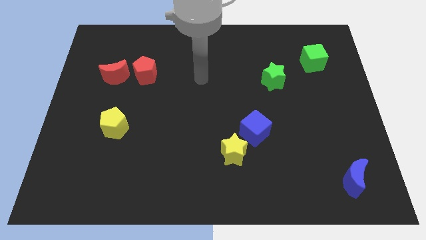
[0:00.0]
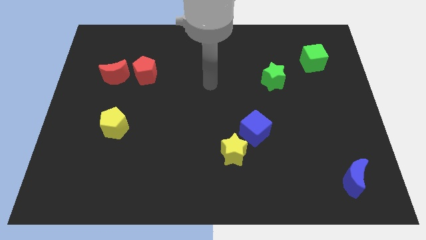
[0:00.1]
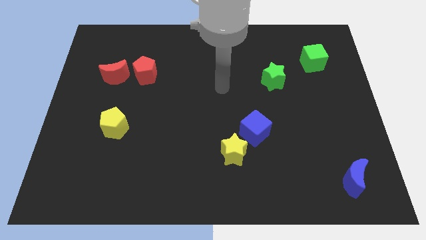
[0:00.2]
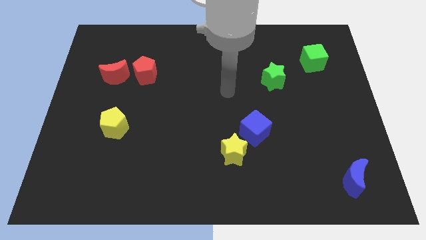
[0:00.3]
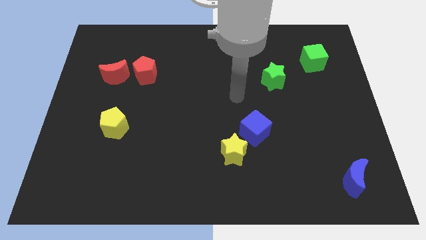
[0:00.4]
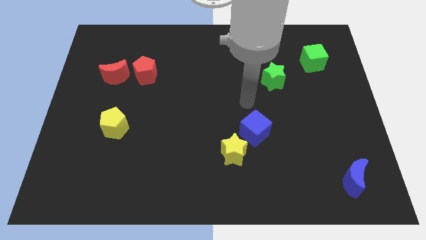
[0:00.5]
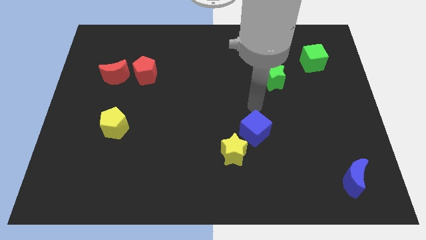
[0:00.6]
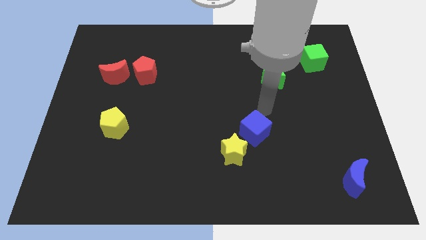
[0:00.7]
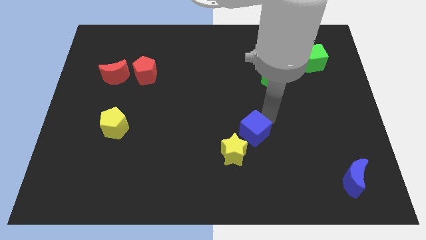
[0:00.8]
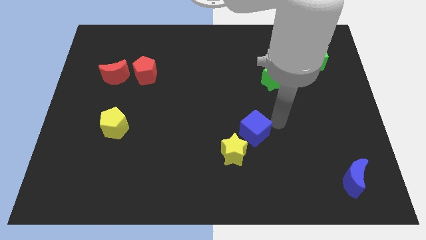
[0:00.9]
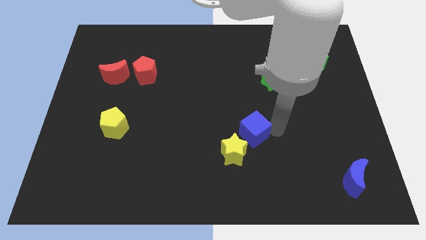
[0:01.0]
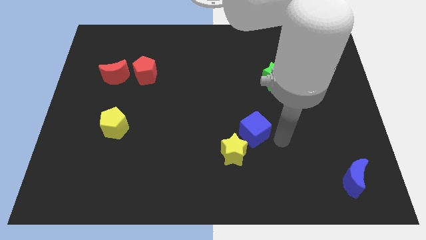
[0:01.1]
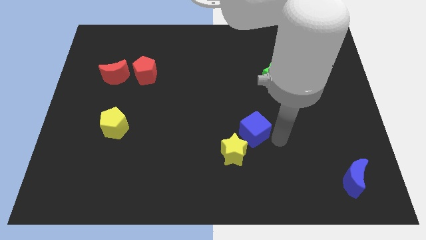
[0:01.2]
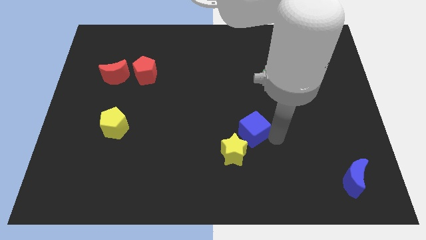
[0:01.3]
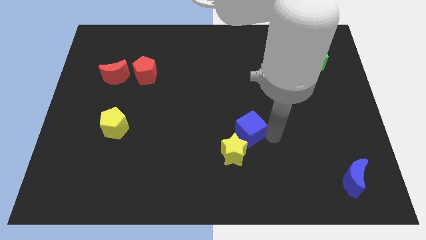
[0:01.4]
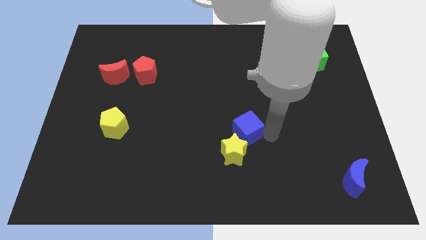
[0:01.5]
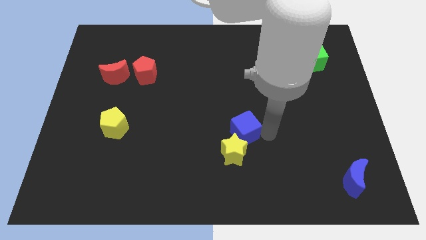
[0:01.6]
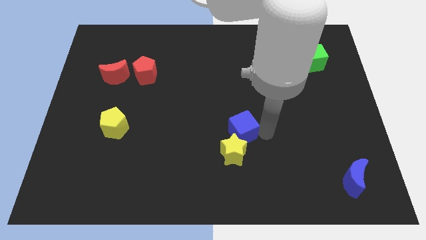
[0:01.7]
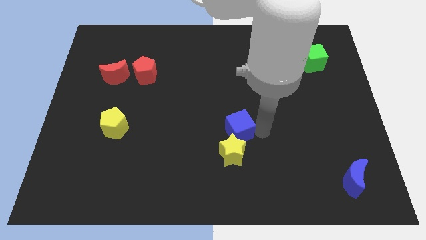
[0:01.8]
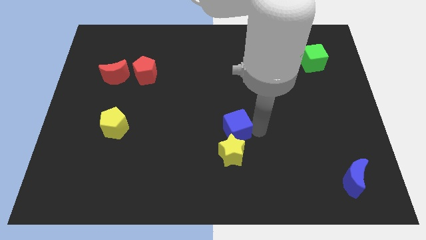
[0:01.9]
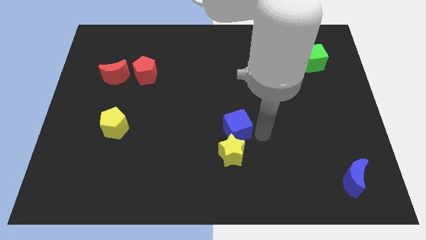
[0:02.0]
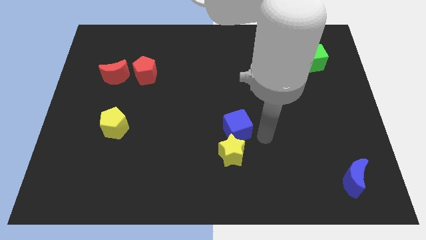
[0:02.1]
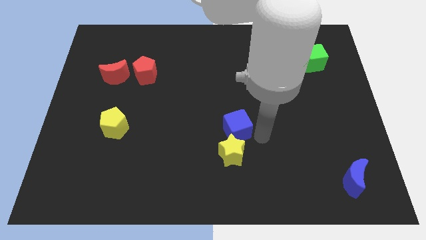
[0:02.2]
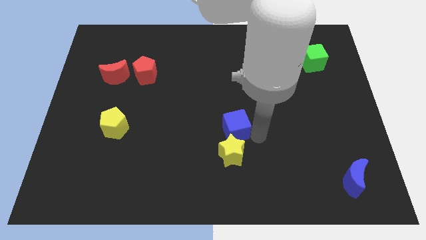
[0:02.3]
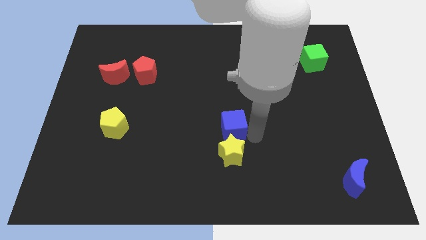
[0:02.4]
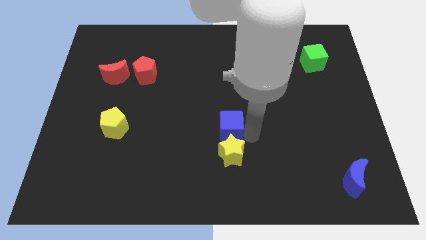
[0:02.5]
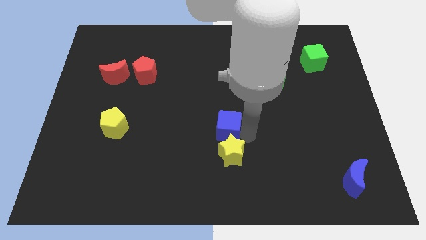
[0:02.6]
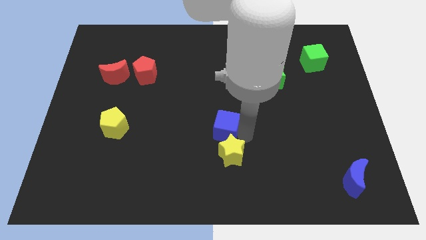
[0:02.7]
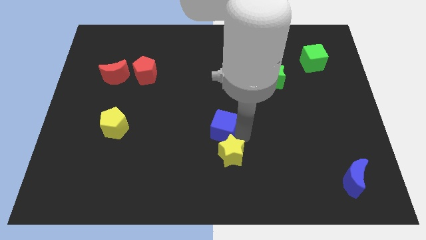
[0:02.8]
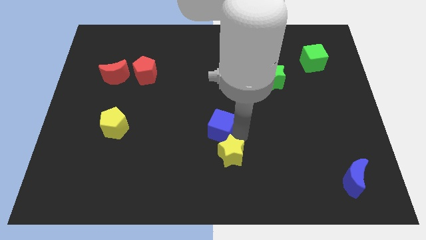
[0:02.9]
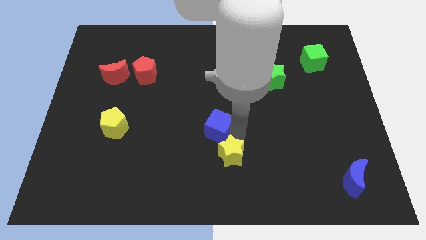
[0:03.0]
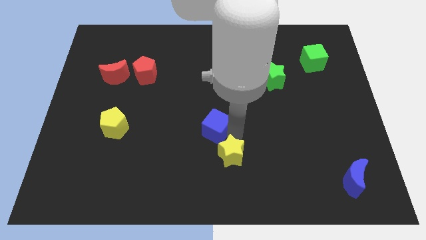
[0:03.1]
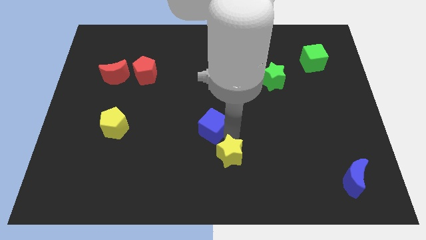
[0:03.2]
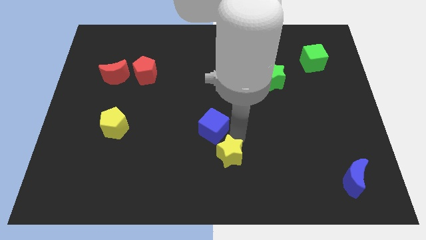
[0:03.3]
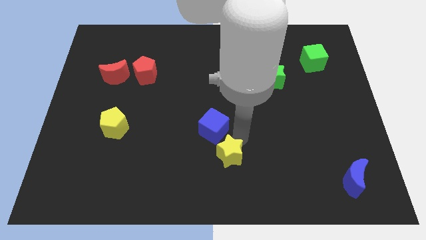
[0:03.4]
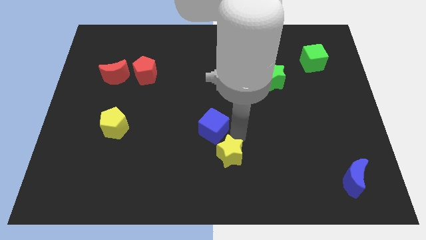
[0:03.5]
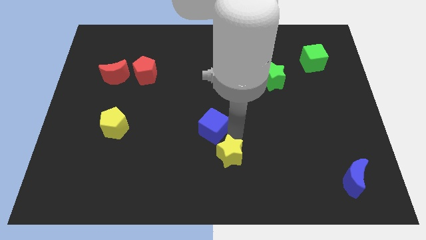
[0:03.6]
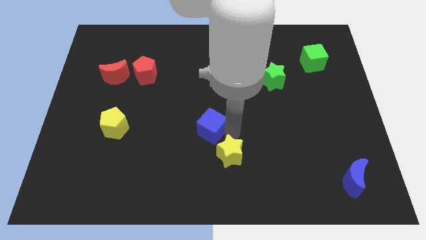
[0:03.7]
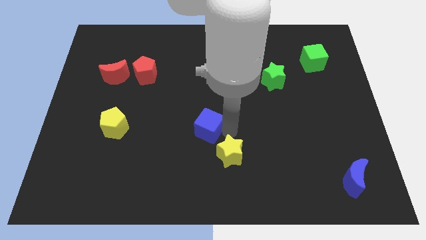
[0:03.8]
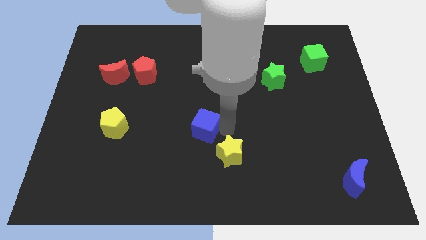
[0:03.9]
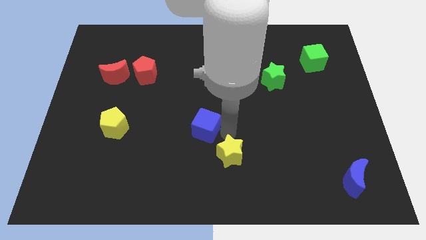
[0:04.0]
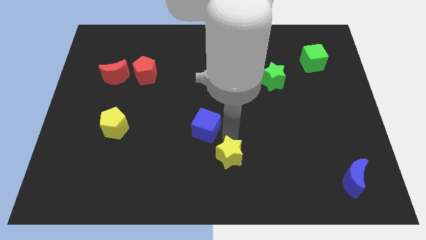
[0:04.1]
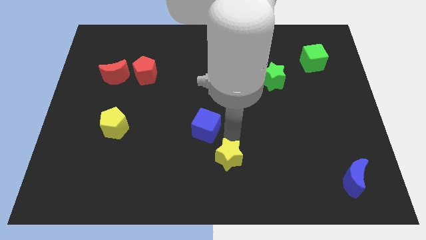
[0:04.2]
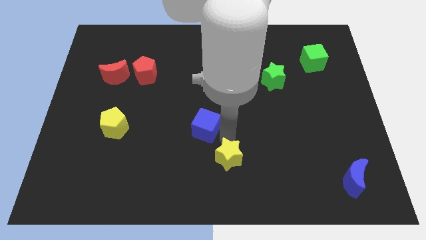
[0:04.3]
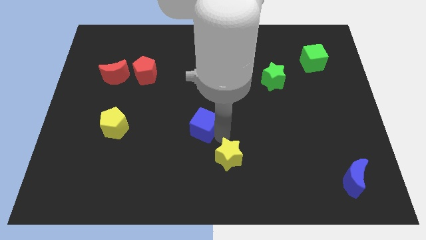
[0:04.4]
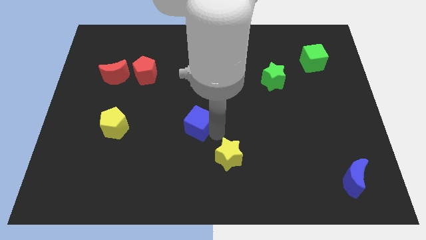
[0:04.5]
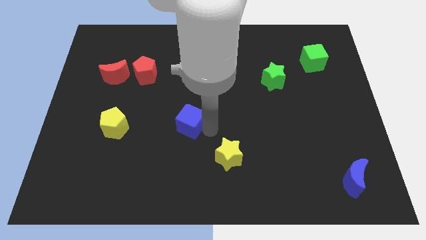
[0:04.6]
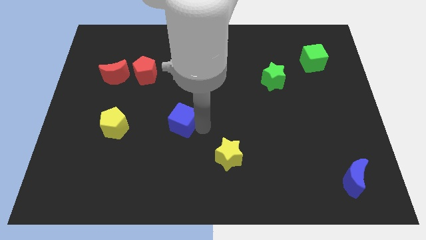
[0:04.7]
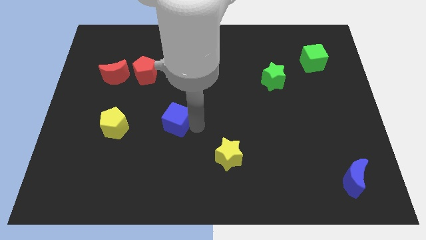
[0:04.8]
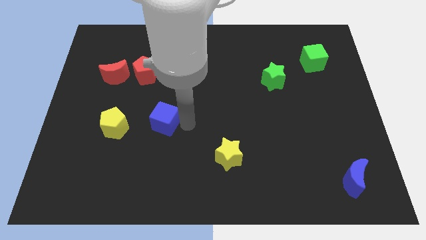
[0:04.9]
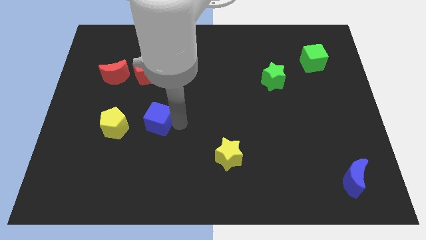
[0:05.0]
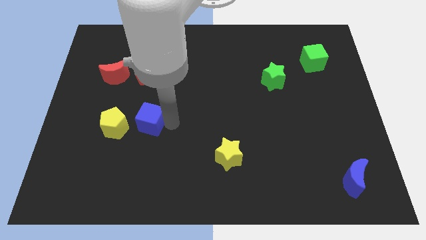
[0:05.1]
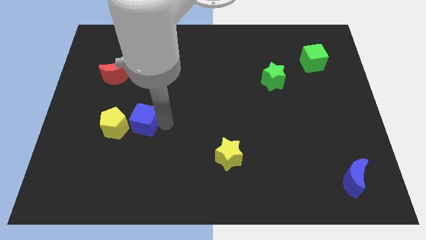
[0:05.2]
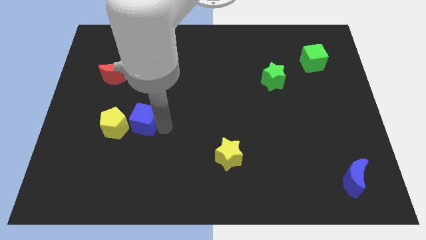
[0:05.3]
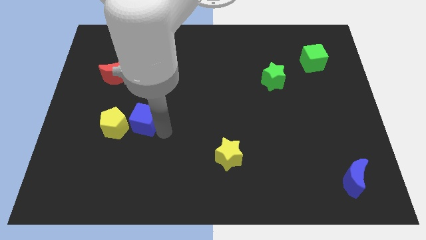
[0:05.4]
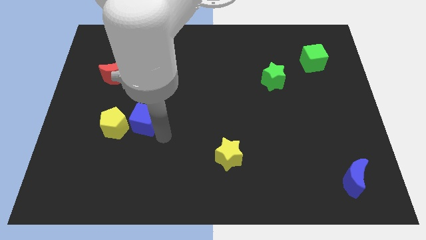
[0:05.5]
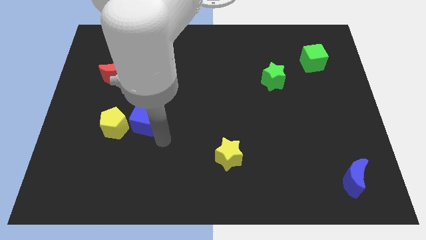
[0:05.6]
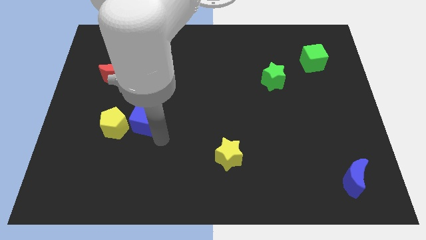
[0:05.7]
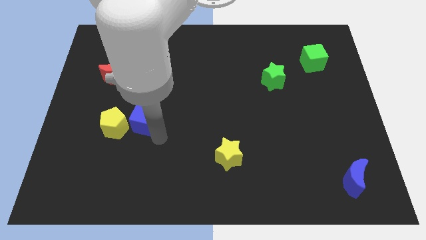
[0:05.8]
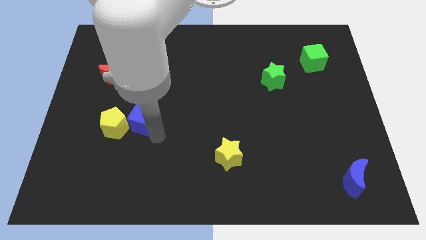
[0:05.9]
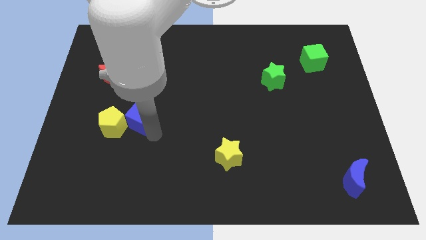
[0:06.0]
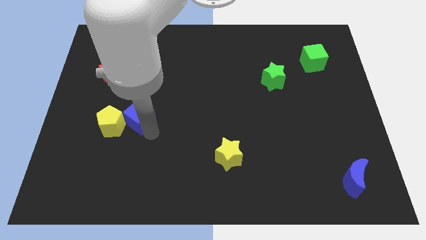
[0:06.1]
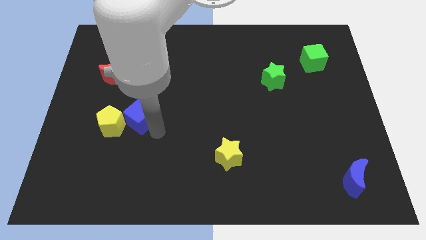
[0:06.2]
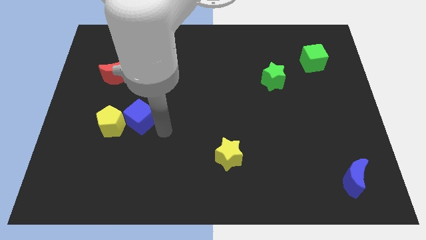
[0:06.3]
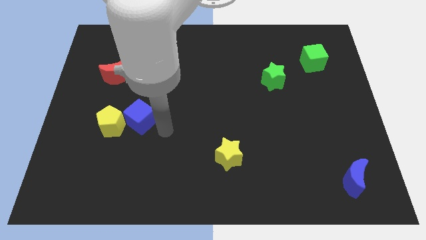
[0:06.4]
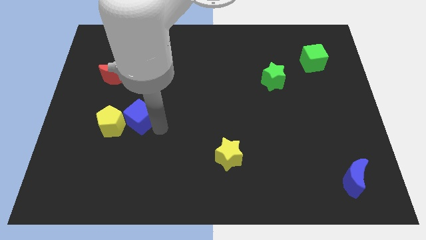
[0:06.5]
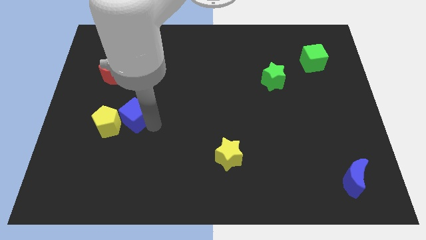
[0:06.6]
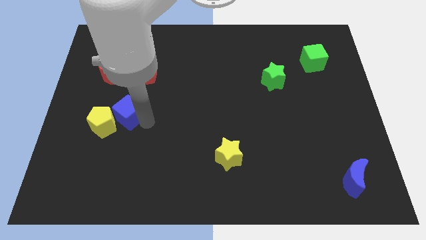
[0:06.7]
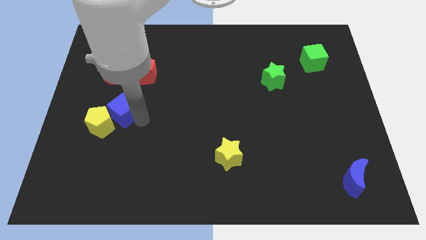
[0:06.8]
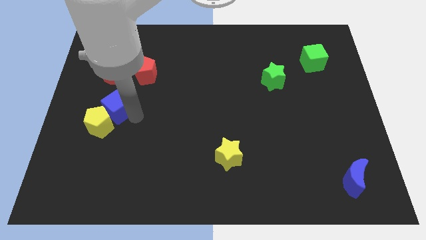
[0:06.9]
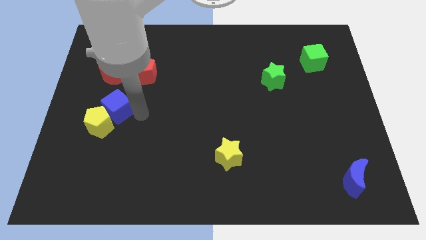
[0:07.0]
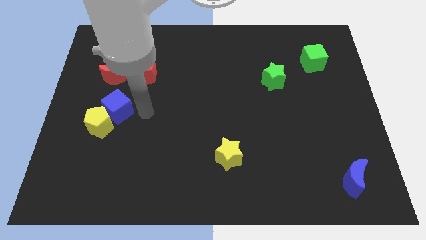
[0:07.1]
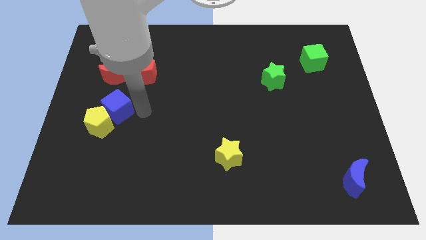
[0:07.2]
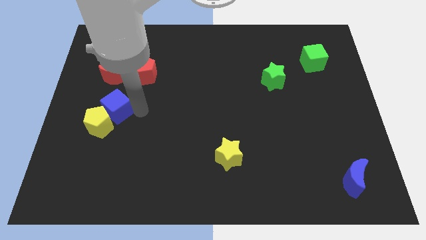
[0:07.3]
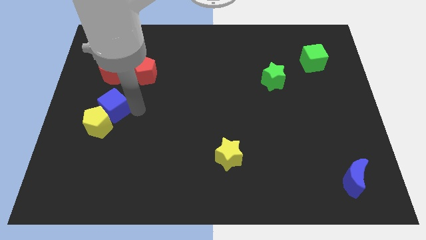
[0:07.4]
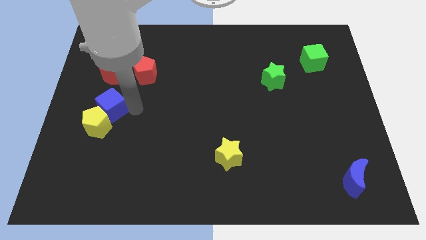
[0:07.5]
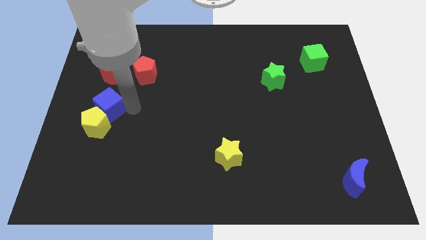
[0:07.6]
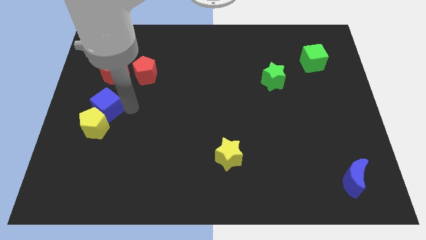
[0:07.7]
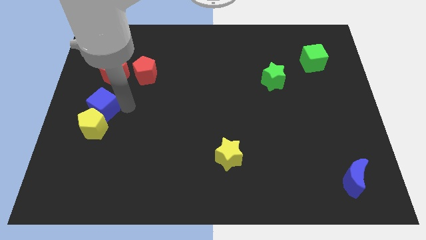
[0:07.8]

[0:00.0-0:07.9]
put the blue cube to the center left
